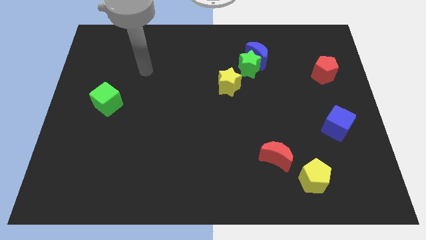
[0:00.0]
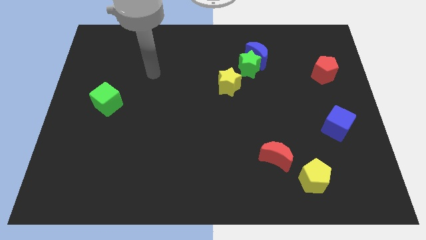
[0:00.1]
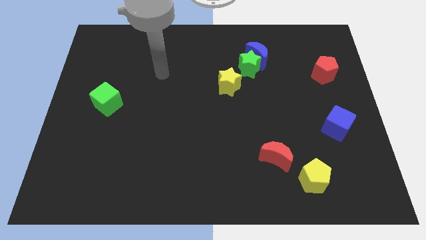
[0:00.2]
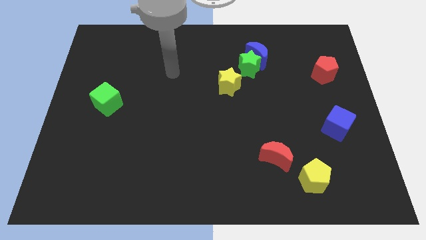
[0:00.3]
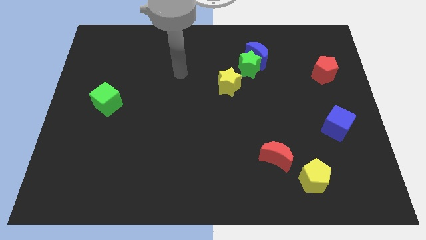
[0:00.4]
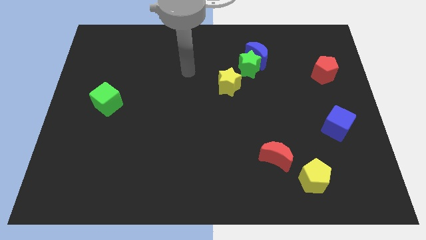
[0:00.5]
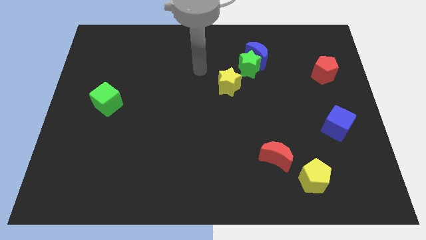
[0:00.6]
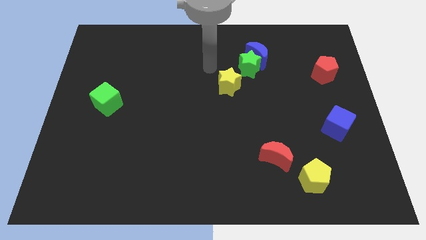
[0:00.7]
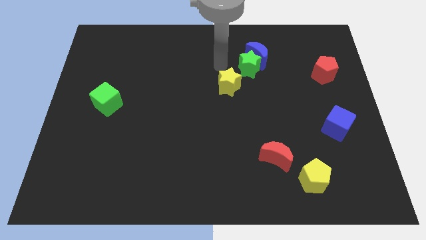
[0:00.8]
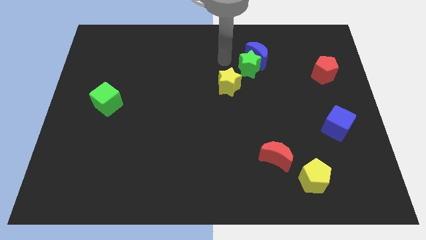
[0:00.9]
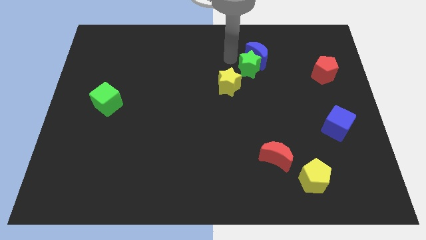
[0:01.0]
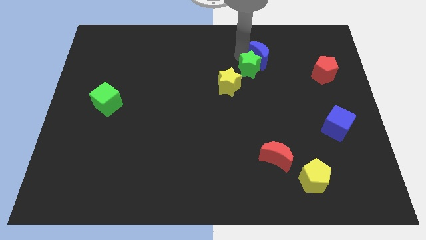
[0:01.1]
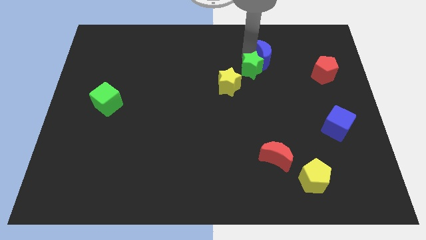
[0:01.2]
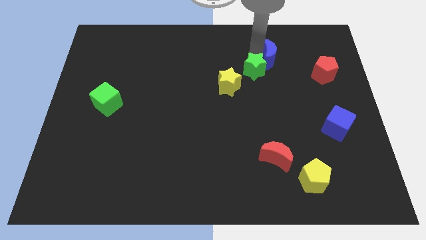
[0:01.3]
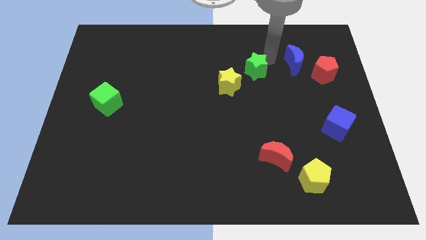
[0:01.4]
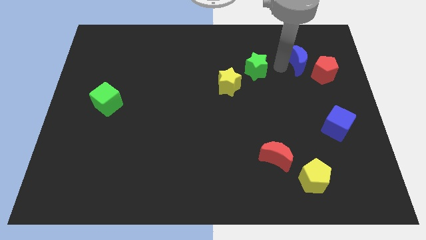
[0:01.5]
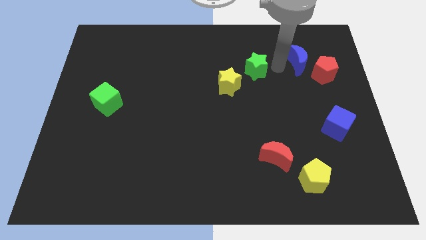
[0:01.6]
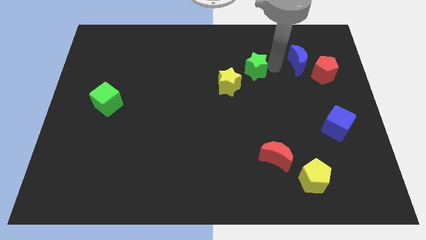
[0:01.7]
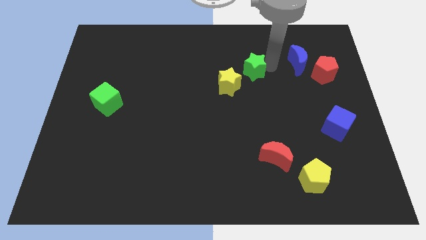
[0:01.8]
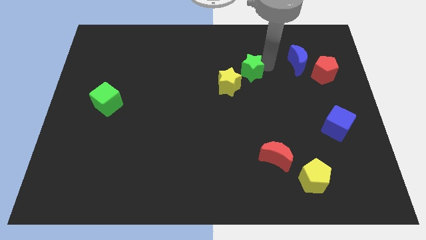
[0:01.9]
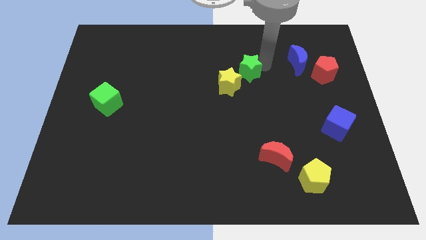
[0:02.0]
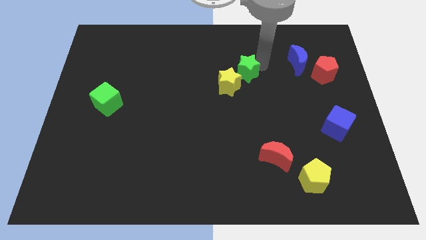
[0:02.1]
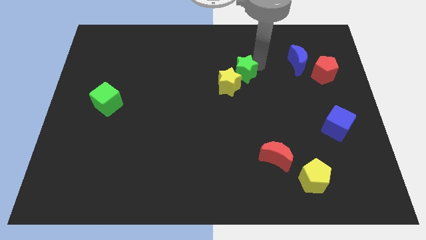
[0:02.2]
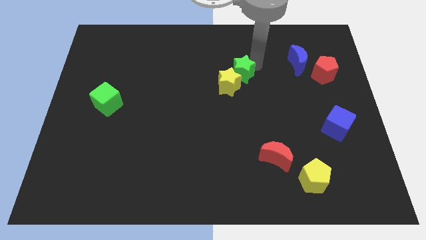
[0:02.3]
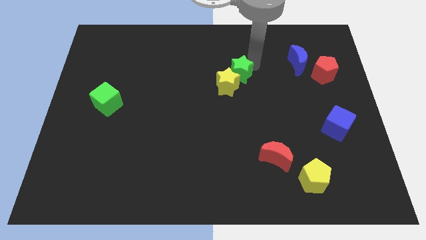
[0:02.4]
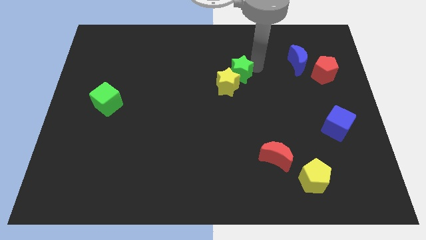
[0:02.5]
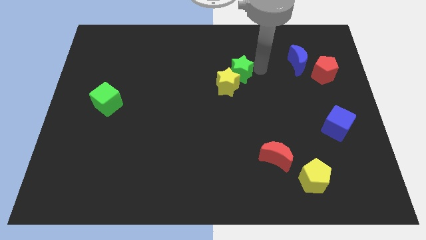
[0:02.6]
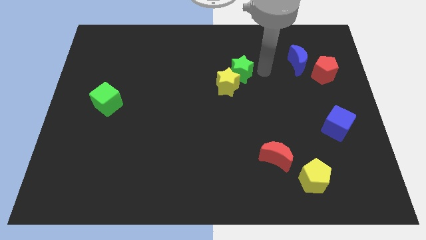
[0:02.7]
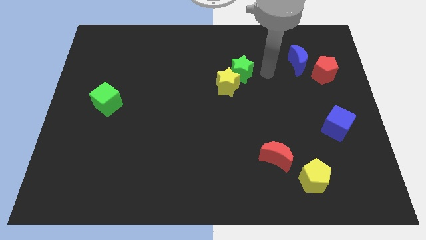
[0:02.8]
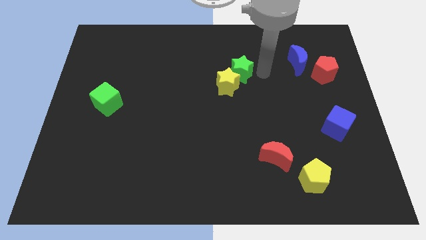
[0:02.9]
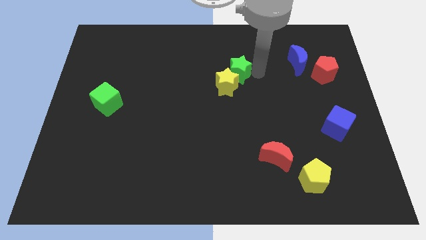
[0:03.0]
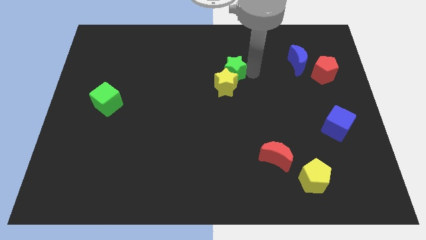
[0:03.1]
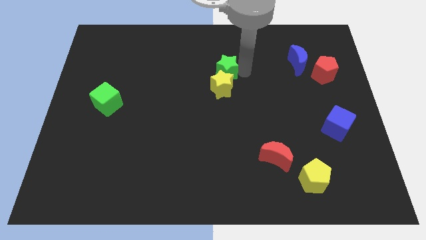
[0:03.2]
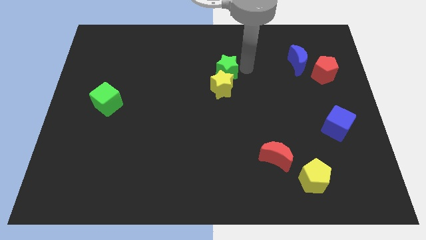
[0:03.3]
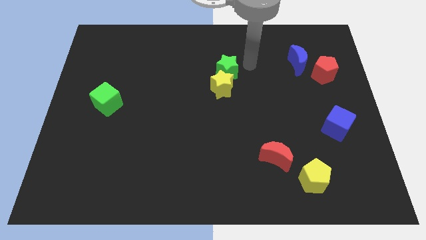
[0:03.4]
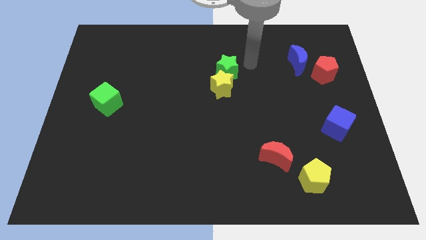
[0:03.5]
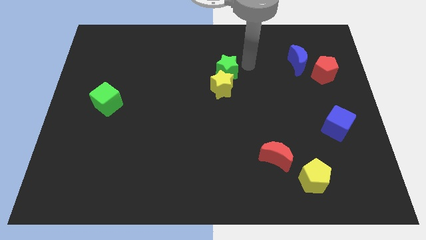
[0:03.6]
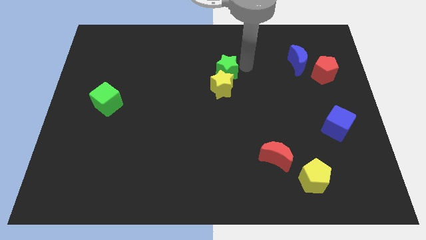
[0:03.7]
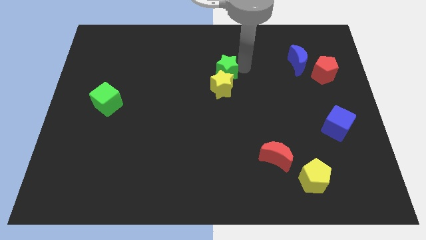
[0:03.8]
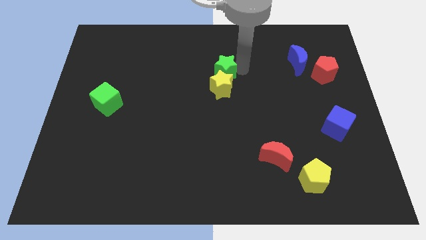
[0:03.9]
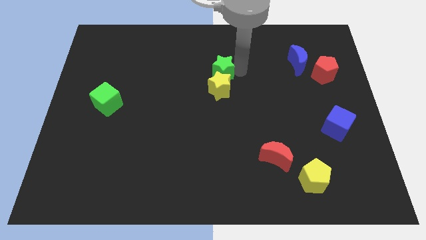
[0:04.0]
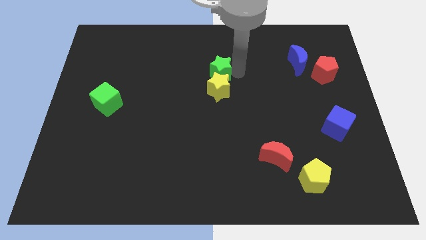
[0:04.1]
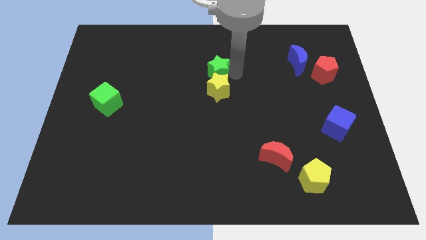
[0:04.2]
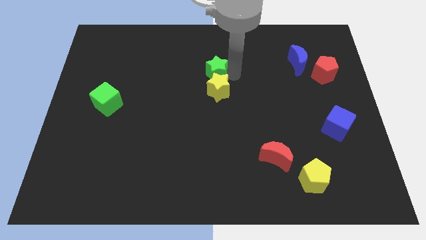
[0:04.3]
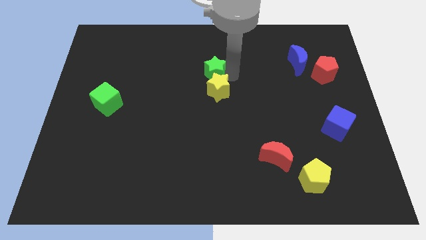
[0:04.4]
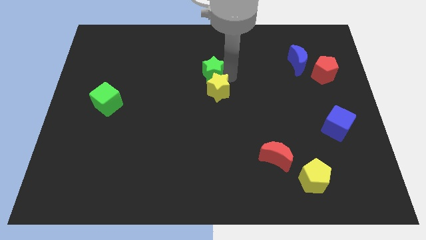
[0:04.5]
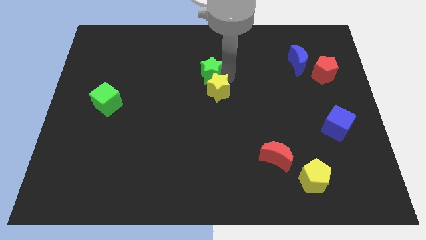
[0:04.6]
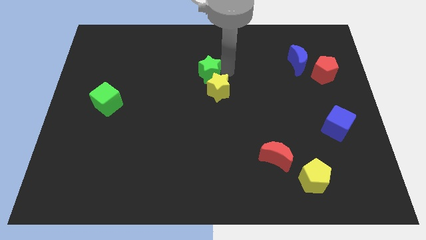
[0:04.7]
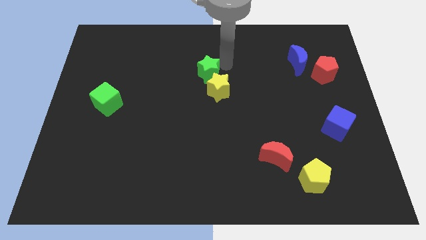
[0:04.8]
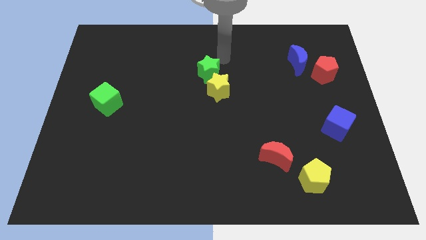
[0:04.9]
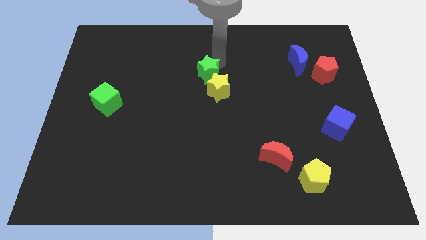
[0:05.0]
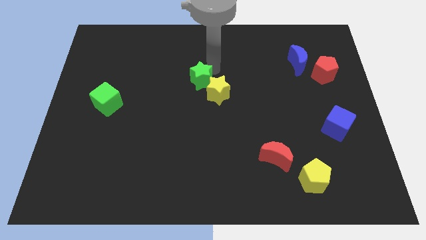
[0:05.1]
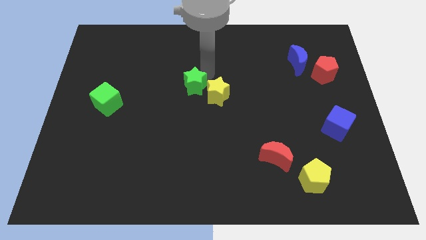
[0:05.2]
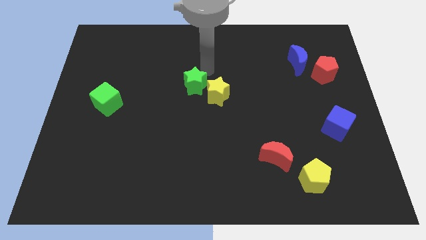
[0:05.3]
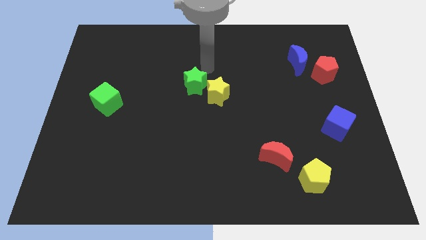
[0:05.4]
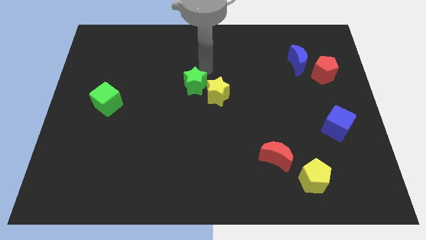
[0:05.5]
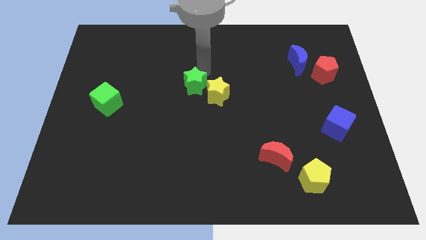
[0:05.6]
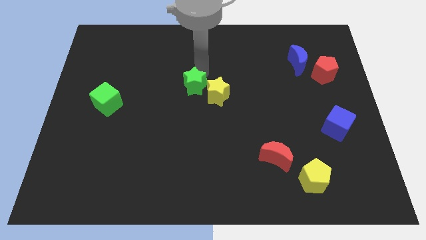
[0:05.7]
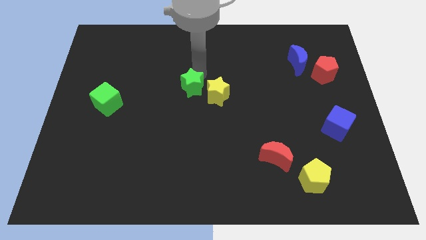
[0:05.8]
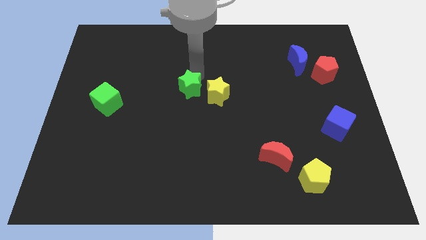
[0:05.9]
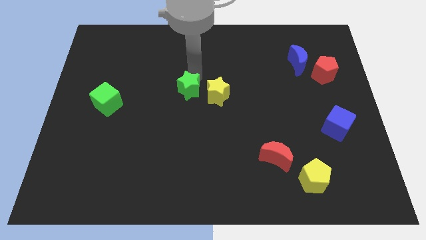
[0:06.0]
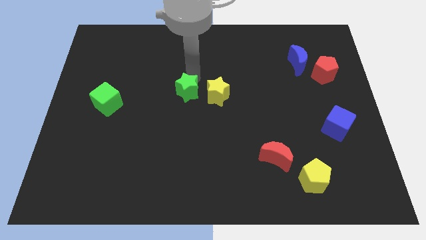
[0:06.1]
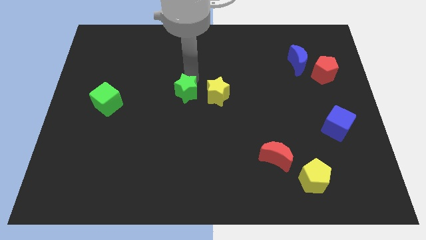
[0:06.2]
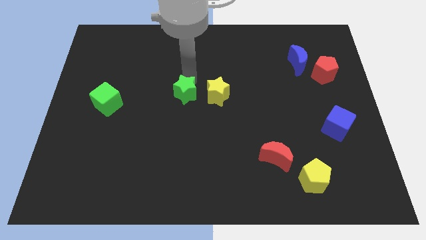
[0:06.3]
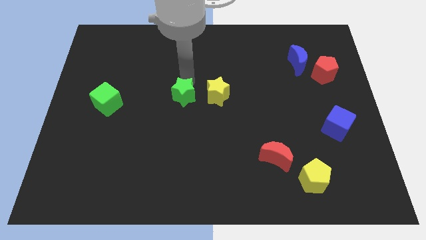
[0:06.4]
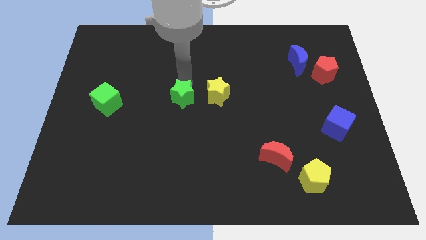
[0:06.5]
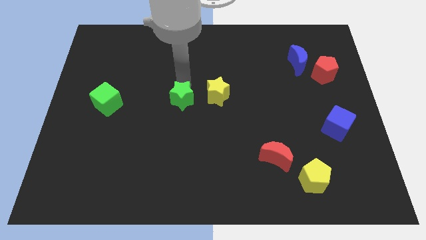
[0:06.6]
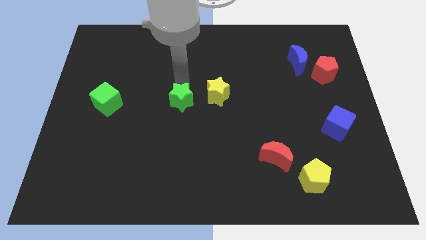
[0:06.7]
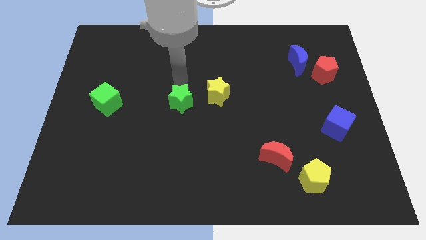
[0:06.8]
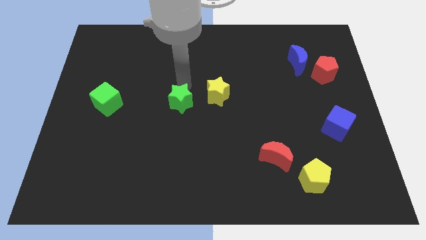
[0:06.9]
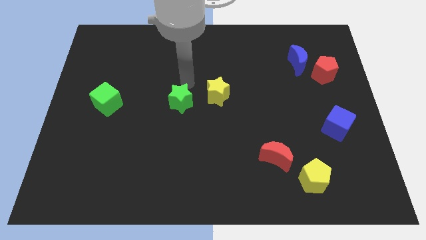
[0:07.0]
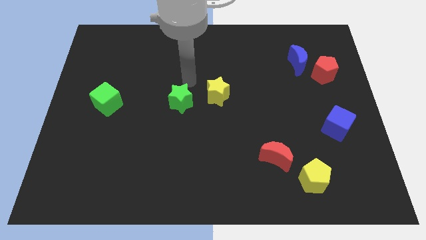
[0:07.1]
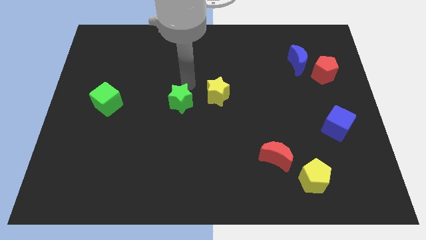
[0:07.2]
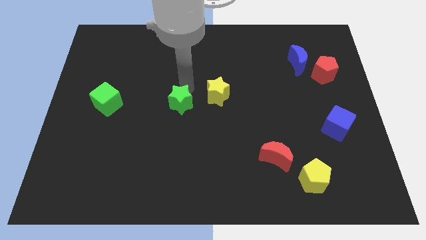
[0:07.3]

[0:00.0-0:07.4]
move the green star diagonally downwards and left

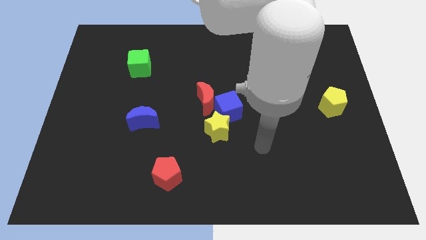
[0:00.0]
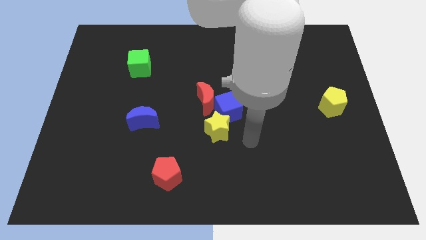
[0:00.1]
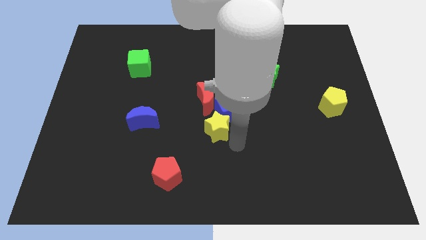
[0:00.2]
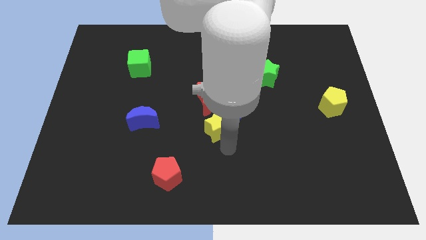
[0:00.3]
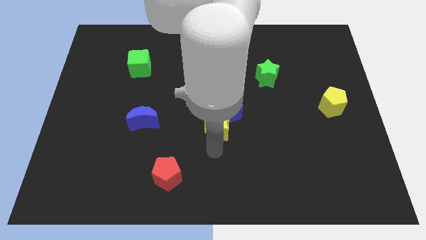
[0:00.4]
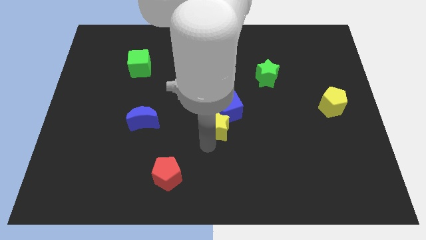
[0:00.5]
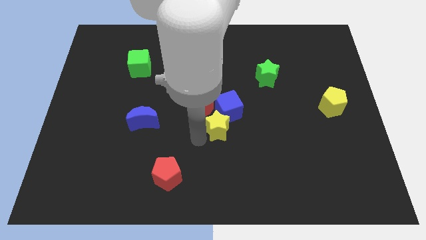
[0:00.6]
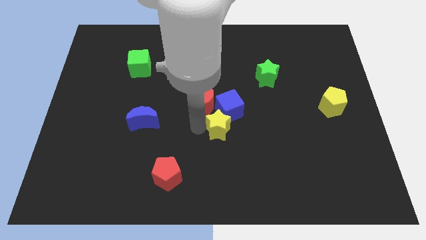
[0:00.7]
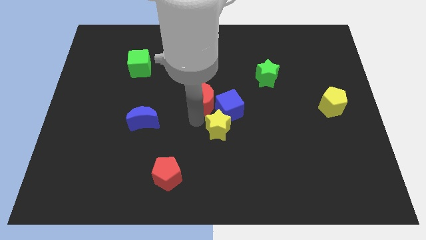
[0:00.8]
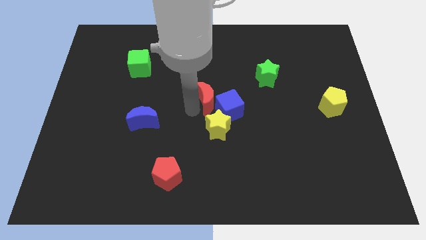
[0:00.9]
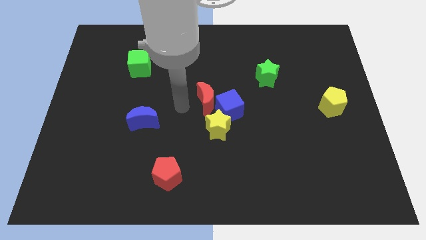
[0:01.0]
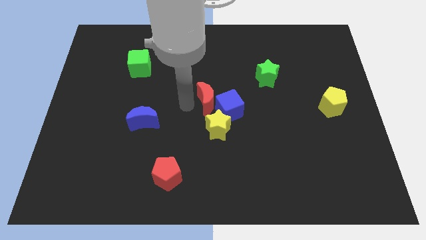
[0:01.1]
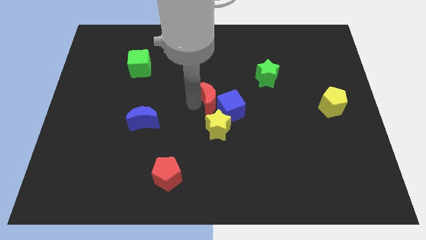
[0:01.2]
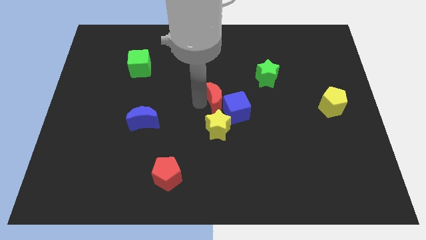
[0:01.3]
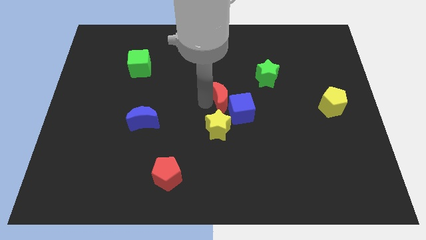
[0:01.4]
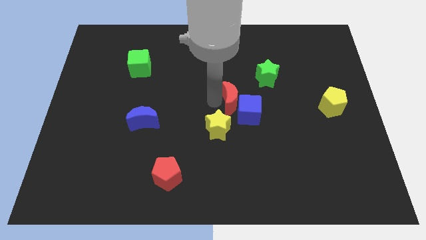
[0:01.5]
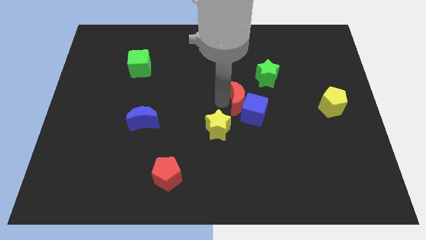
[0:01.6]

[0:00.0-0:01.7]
slide the red moon right somewhat
